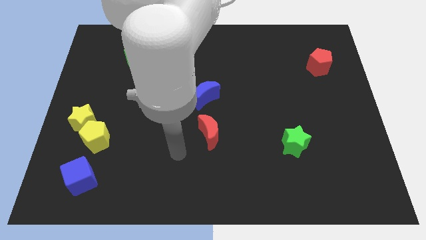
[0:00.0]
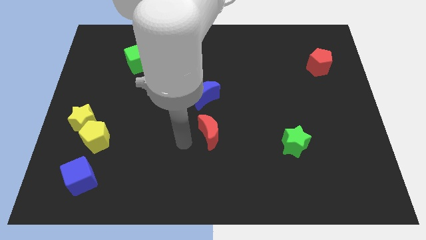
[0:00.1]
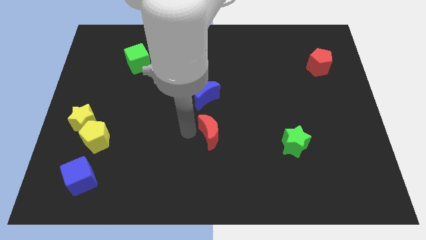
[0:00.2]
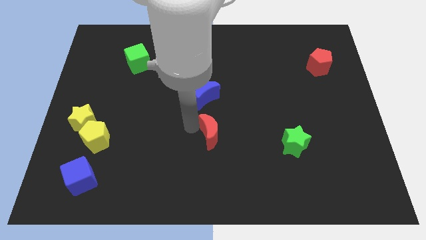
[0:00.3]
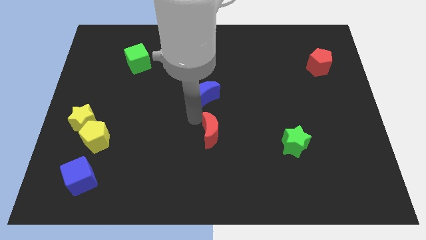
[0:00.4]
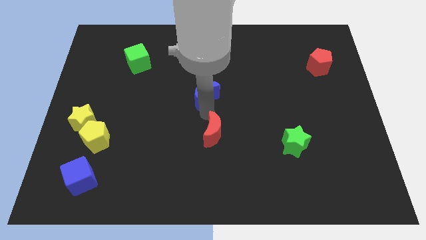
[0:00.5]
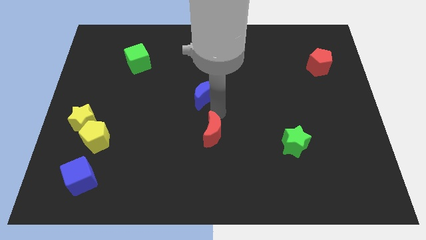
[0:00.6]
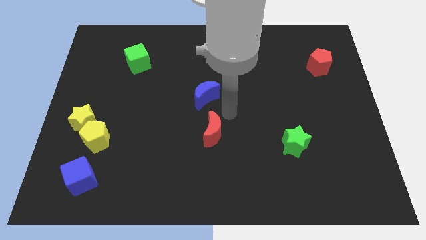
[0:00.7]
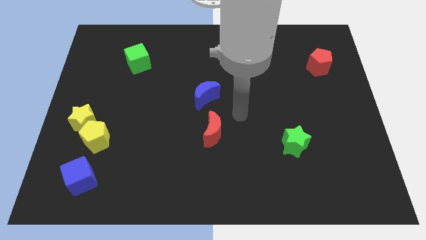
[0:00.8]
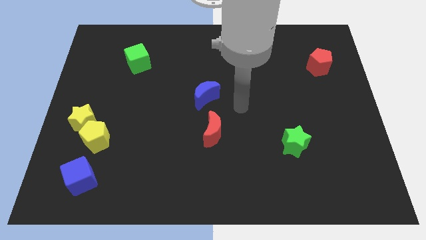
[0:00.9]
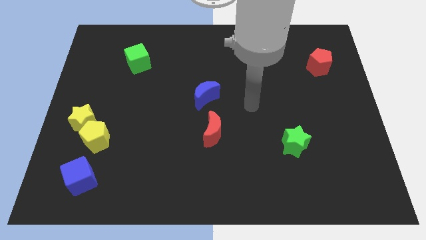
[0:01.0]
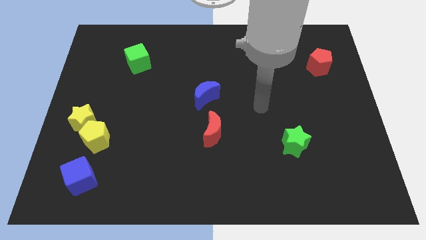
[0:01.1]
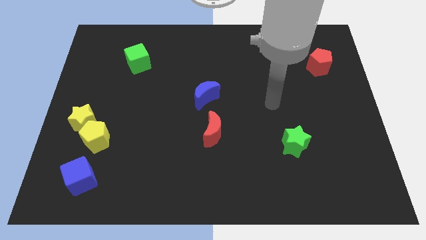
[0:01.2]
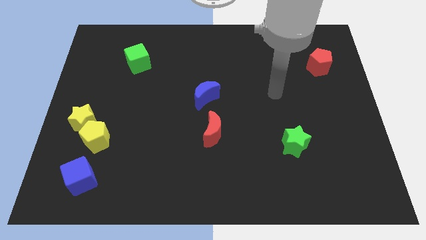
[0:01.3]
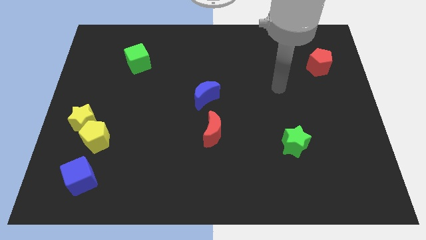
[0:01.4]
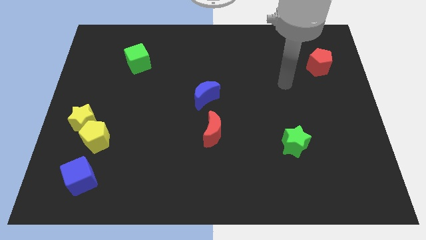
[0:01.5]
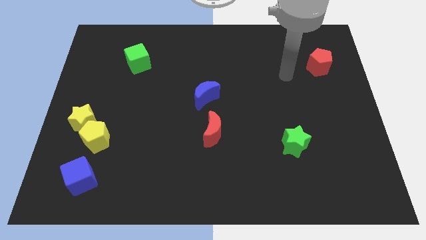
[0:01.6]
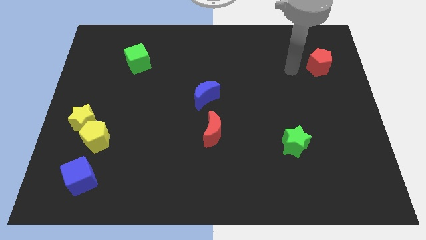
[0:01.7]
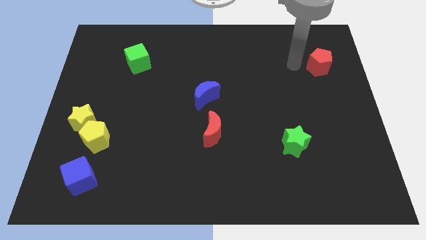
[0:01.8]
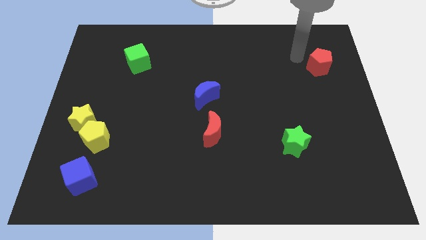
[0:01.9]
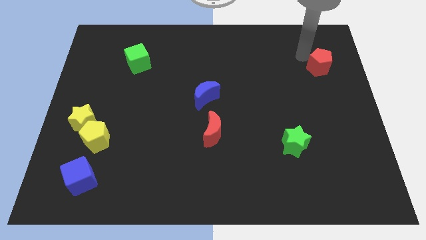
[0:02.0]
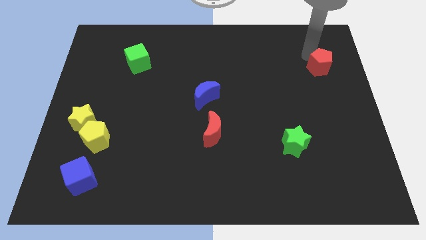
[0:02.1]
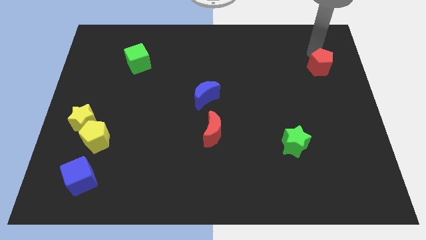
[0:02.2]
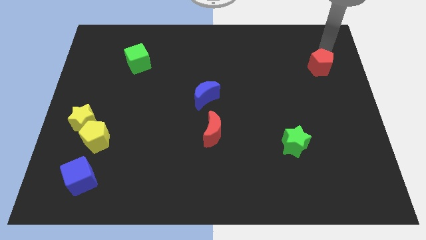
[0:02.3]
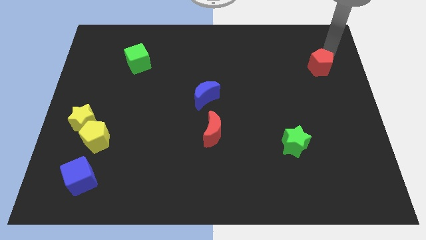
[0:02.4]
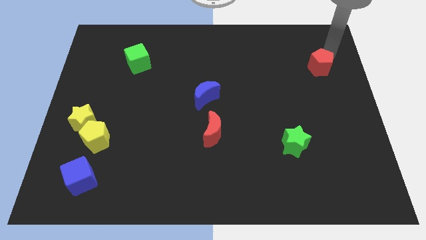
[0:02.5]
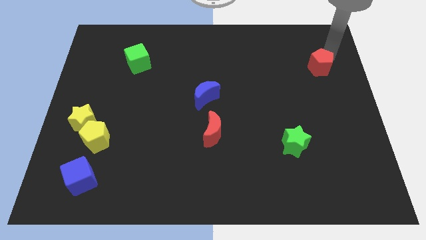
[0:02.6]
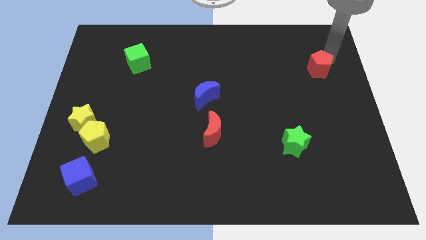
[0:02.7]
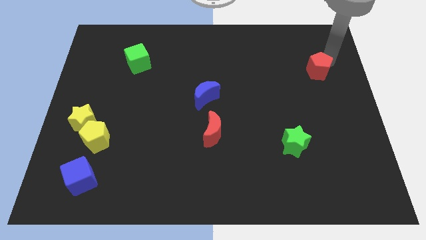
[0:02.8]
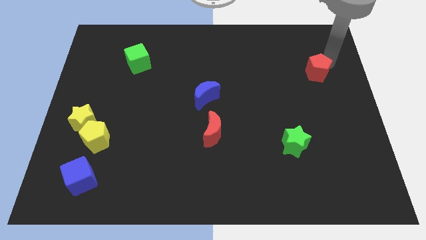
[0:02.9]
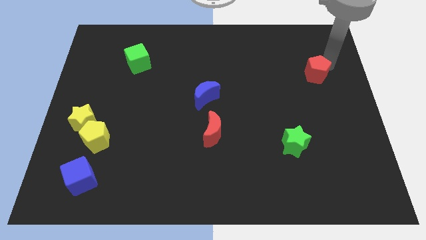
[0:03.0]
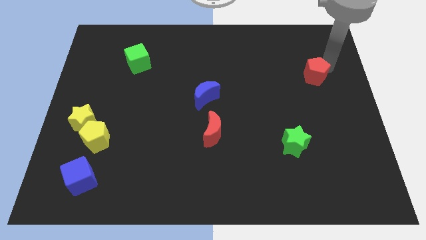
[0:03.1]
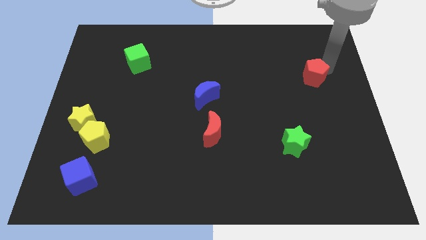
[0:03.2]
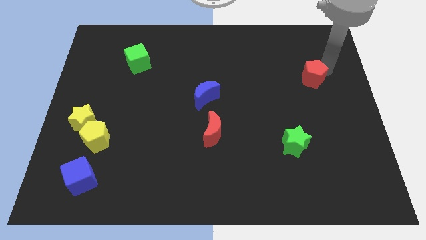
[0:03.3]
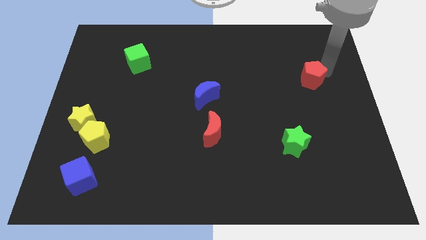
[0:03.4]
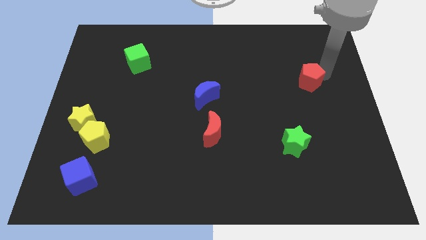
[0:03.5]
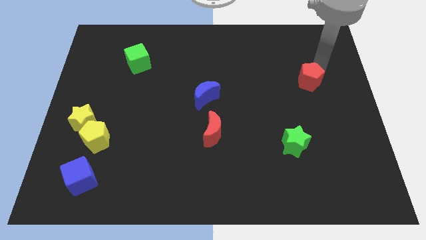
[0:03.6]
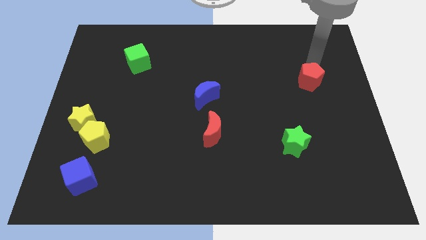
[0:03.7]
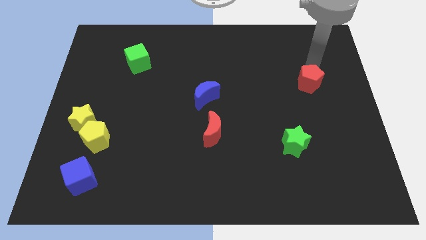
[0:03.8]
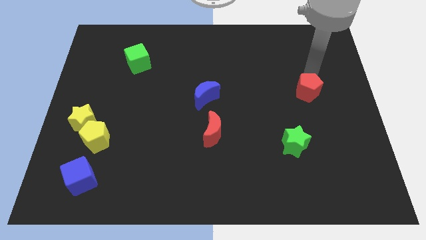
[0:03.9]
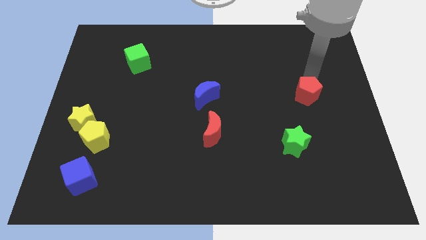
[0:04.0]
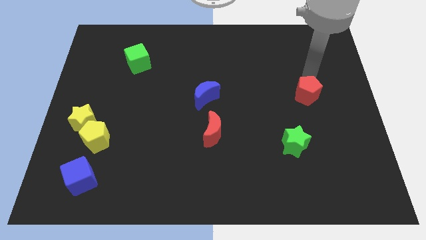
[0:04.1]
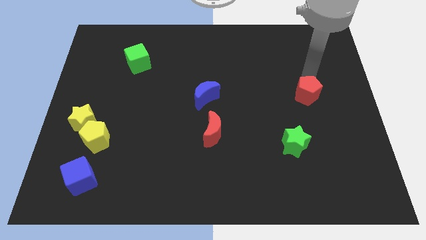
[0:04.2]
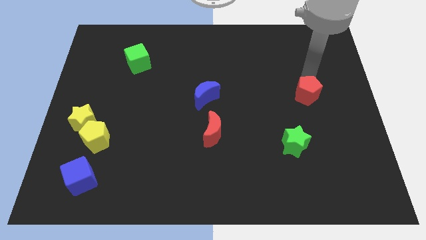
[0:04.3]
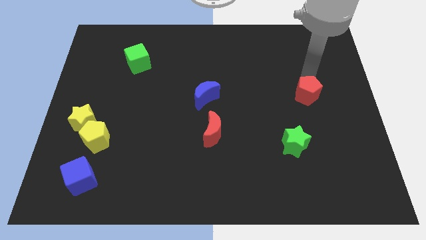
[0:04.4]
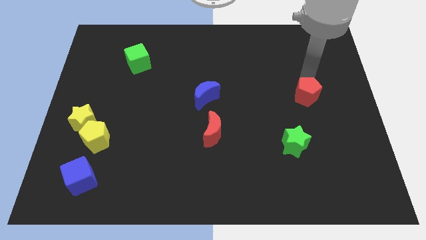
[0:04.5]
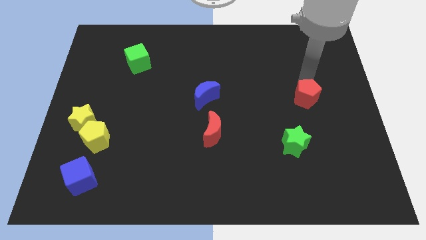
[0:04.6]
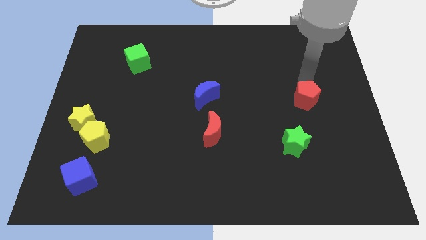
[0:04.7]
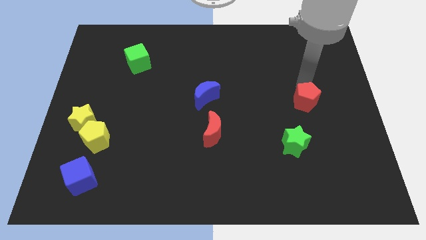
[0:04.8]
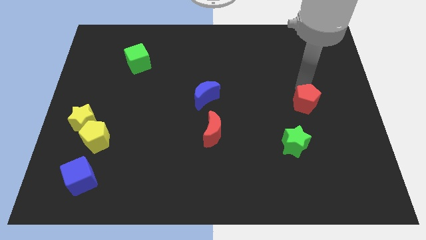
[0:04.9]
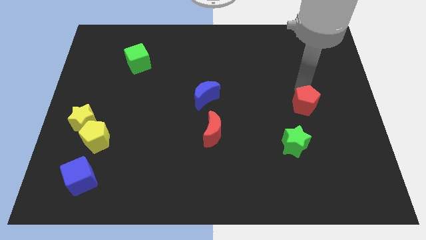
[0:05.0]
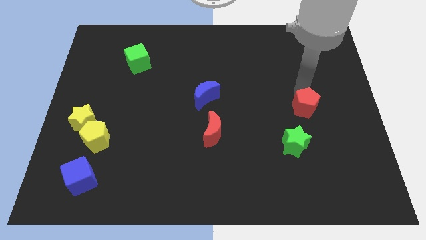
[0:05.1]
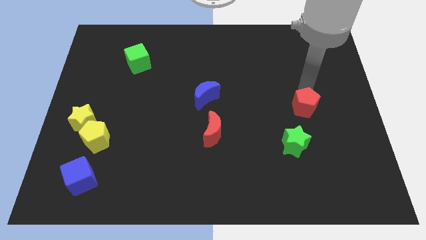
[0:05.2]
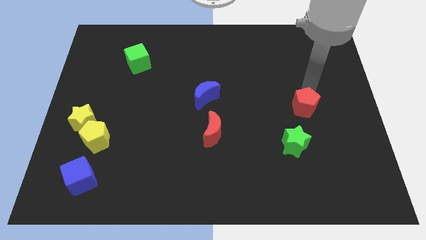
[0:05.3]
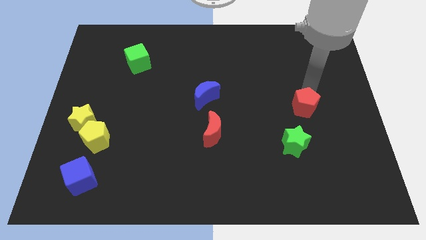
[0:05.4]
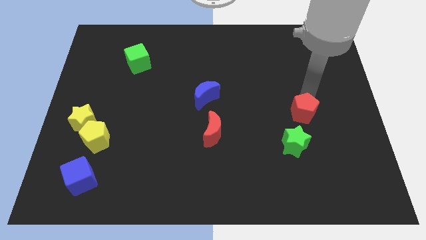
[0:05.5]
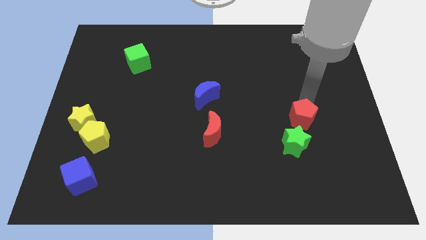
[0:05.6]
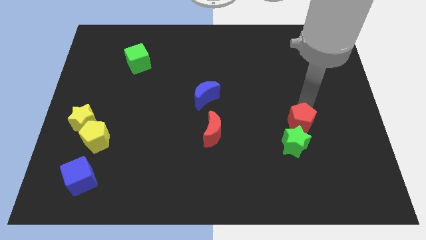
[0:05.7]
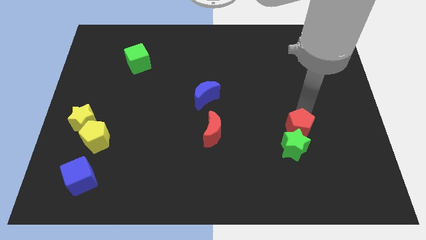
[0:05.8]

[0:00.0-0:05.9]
slide the red pentagon to the green star

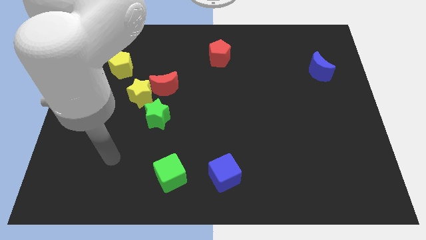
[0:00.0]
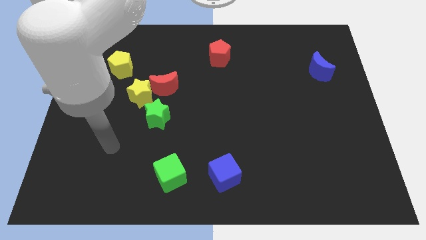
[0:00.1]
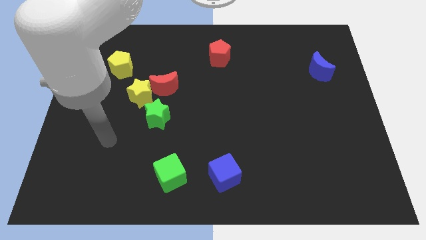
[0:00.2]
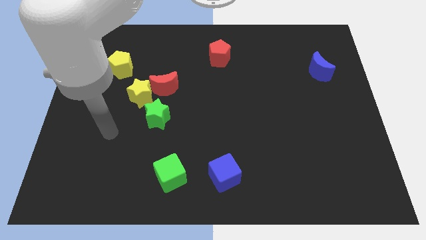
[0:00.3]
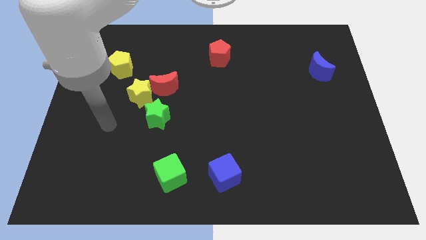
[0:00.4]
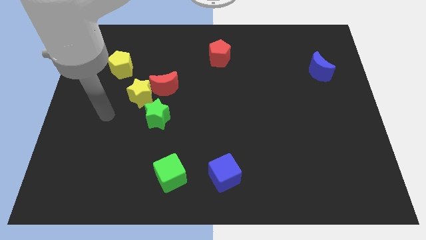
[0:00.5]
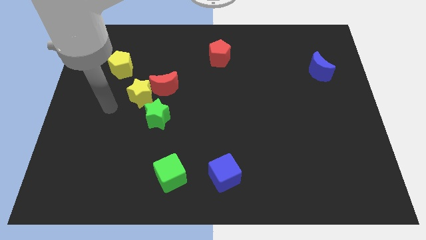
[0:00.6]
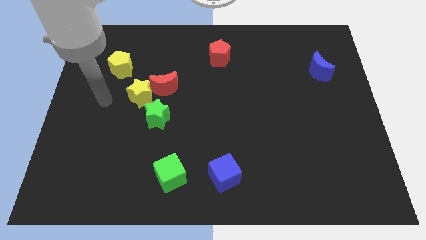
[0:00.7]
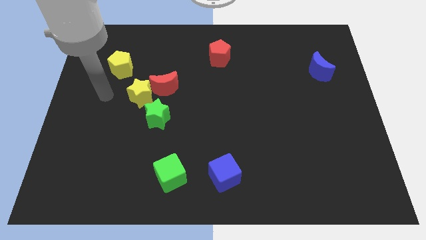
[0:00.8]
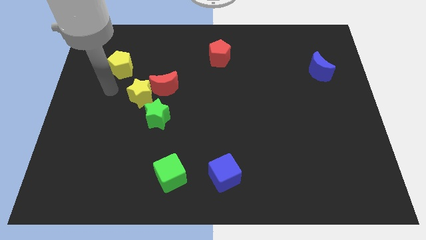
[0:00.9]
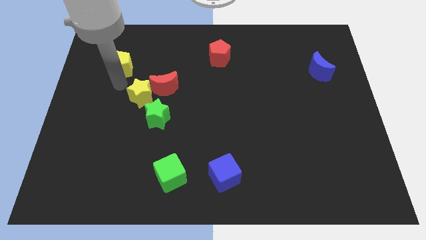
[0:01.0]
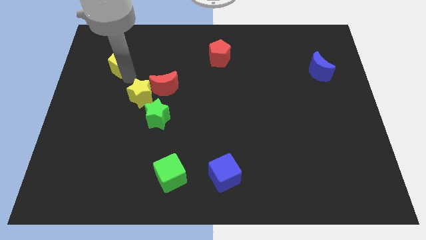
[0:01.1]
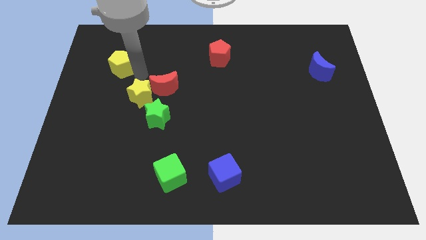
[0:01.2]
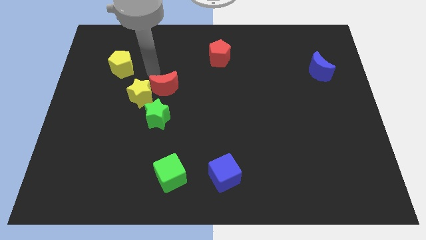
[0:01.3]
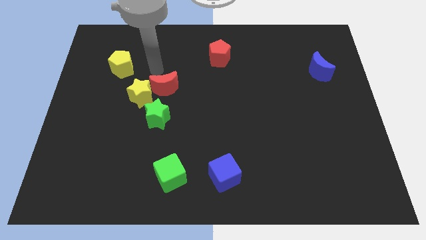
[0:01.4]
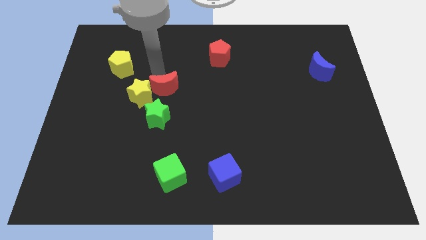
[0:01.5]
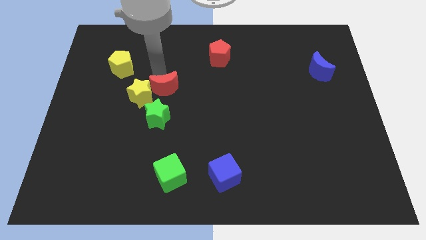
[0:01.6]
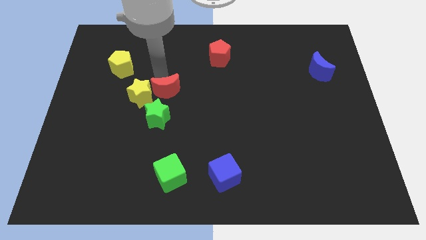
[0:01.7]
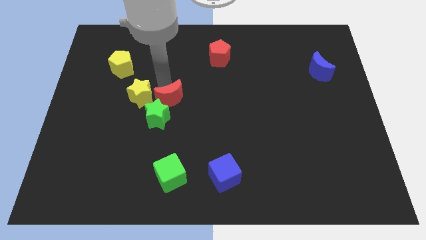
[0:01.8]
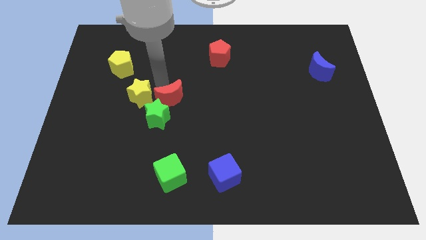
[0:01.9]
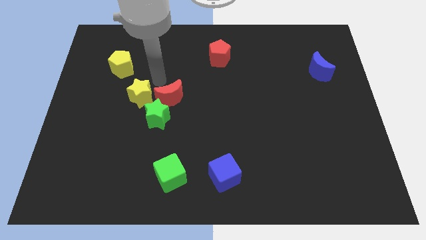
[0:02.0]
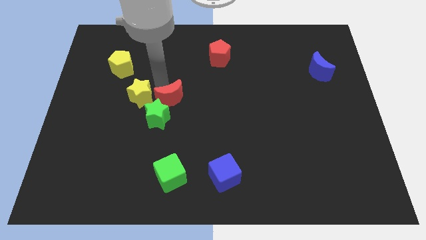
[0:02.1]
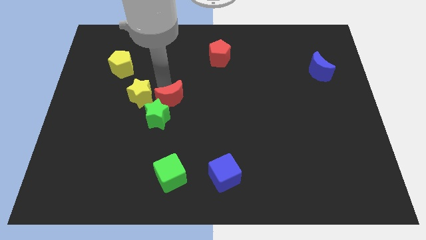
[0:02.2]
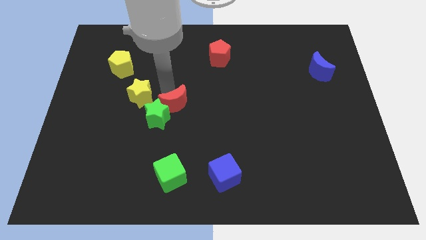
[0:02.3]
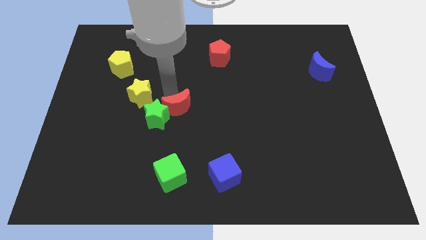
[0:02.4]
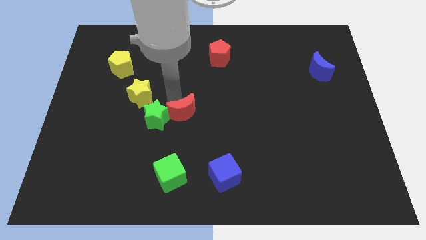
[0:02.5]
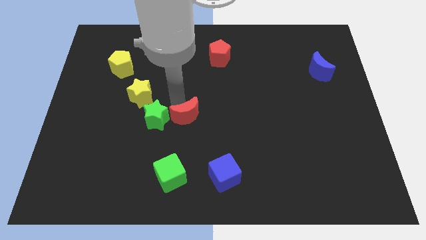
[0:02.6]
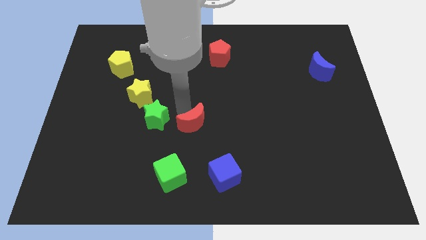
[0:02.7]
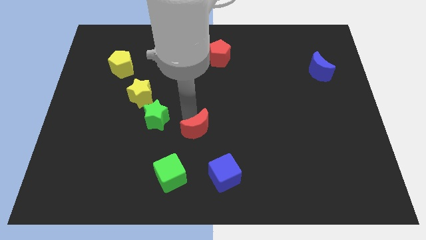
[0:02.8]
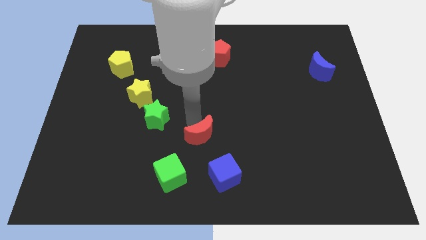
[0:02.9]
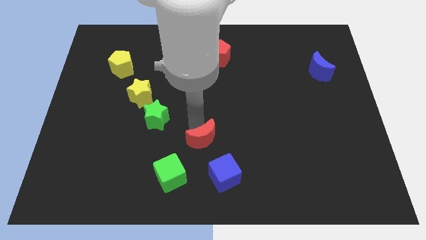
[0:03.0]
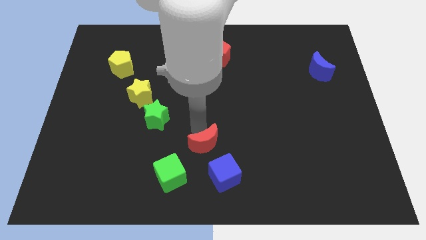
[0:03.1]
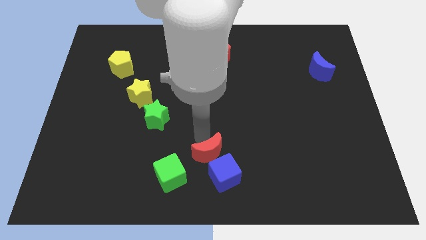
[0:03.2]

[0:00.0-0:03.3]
slide the red moon next to the blue cube
